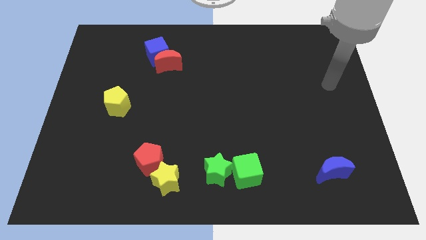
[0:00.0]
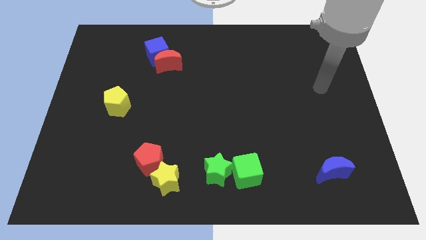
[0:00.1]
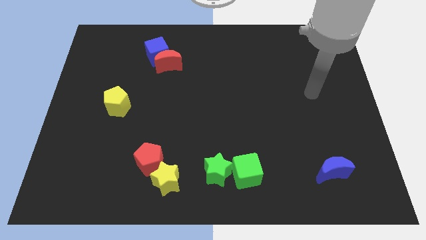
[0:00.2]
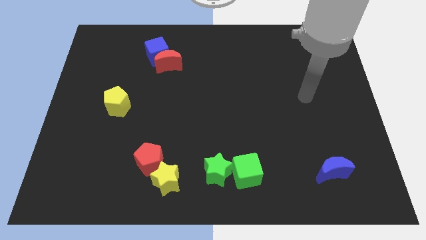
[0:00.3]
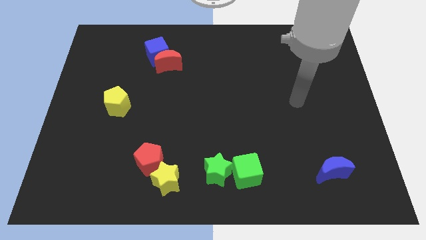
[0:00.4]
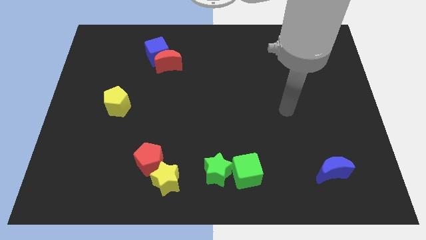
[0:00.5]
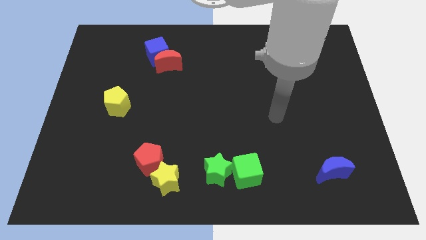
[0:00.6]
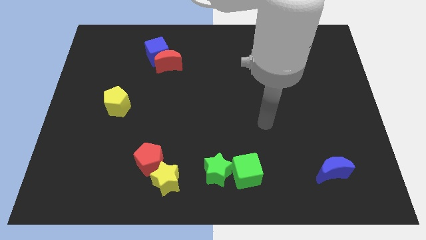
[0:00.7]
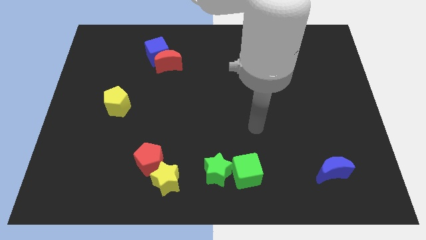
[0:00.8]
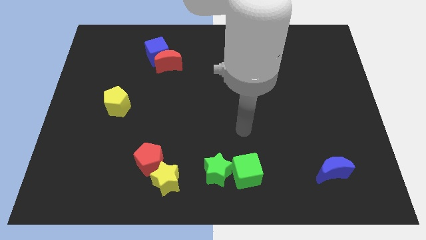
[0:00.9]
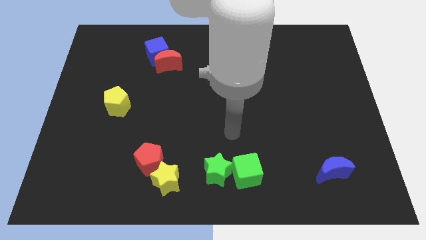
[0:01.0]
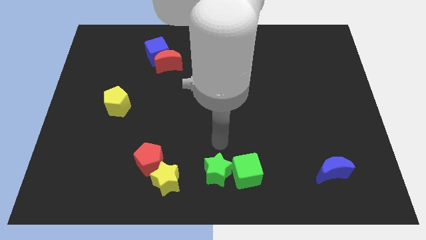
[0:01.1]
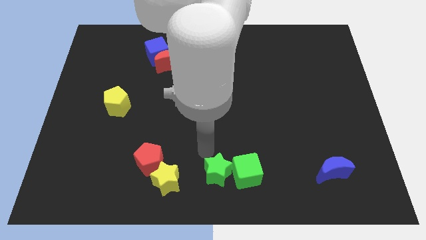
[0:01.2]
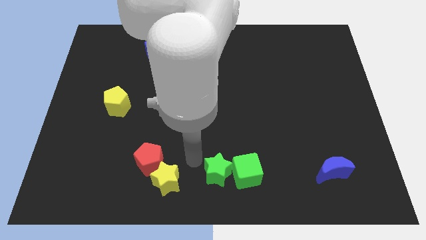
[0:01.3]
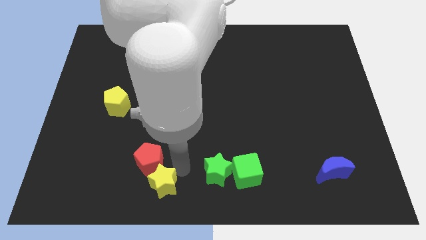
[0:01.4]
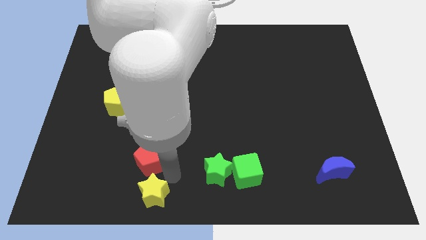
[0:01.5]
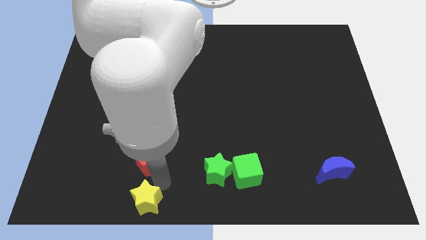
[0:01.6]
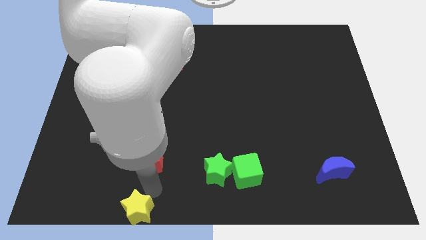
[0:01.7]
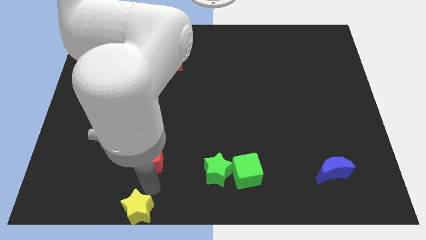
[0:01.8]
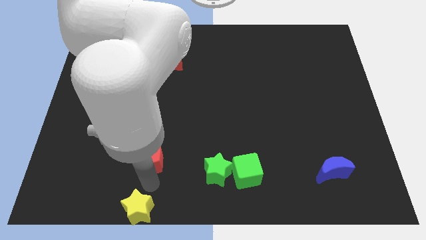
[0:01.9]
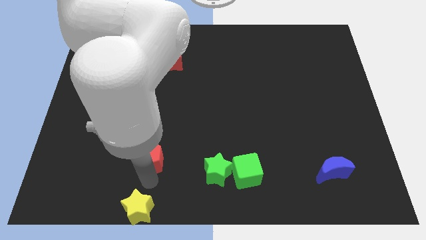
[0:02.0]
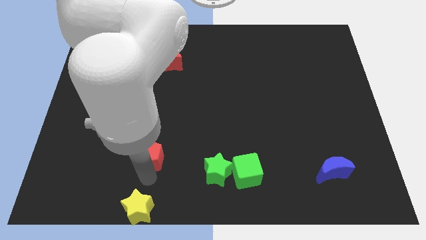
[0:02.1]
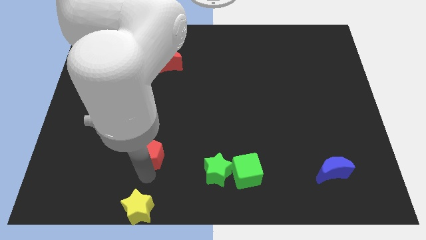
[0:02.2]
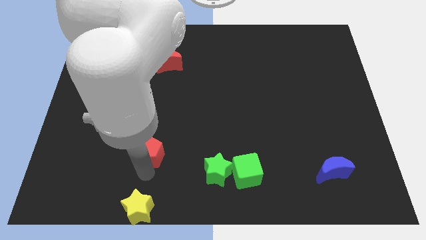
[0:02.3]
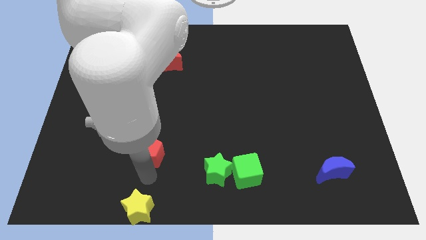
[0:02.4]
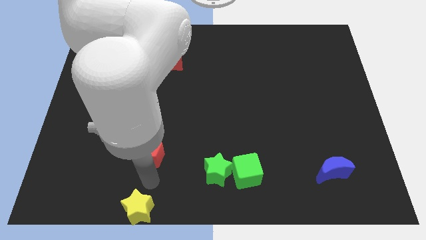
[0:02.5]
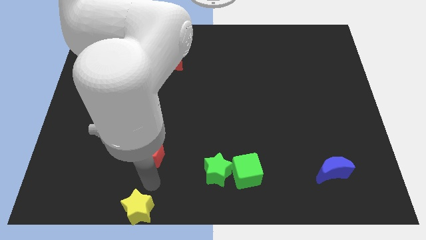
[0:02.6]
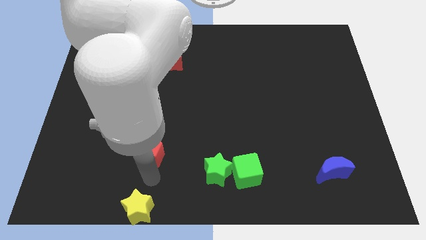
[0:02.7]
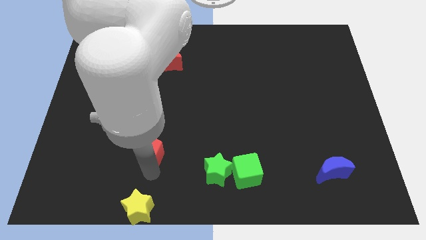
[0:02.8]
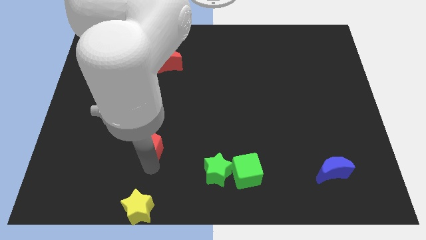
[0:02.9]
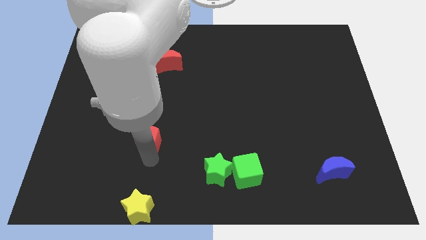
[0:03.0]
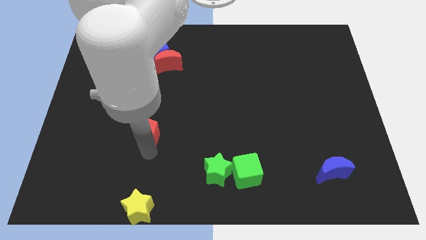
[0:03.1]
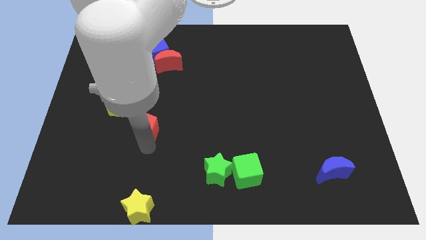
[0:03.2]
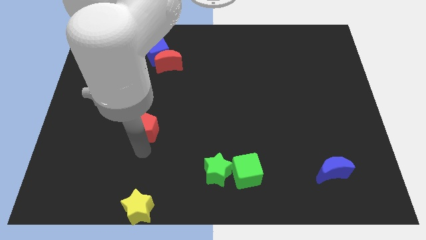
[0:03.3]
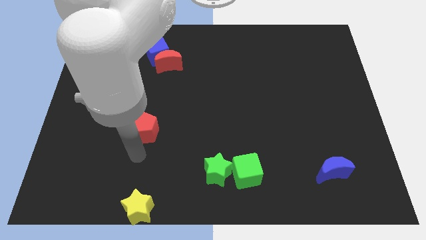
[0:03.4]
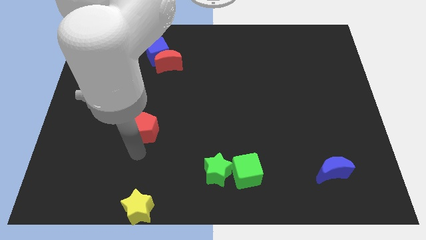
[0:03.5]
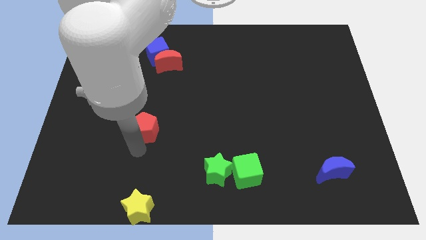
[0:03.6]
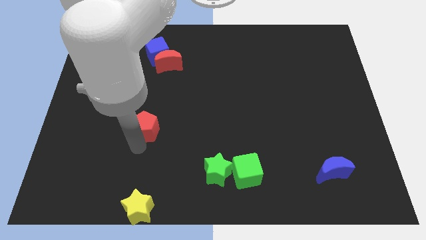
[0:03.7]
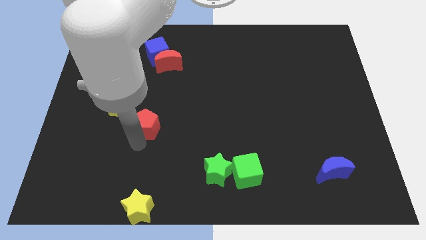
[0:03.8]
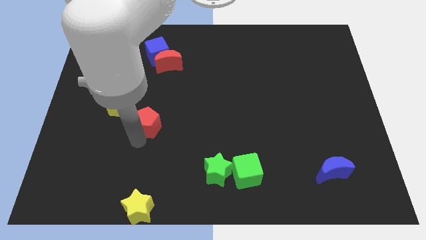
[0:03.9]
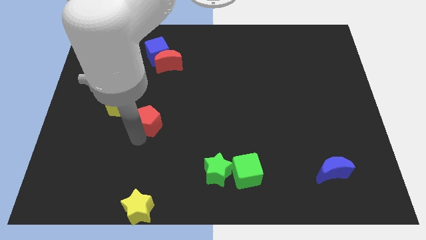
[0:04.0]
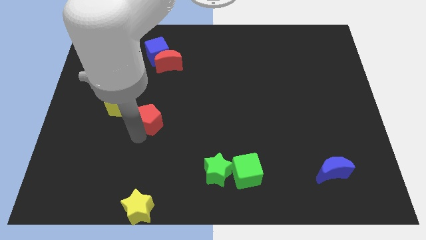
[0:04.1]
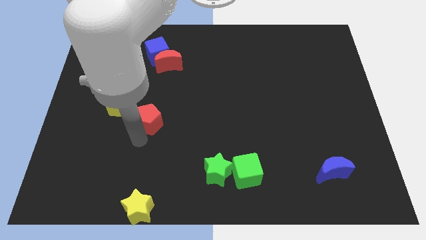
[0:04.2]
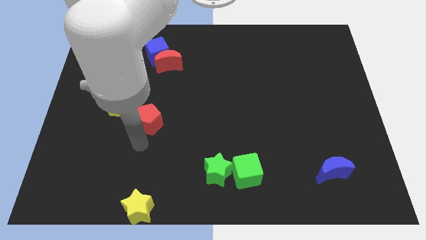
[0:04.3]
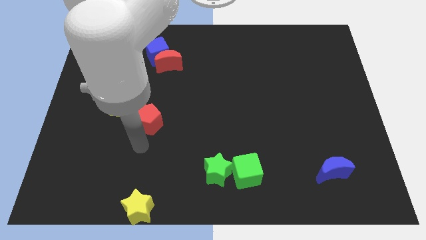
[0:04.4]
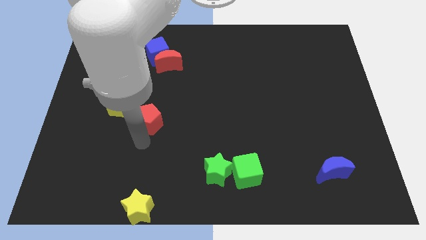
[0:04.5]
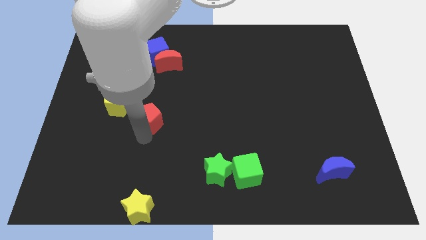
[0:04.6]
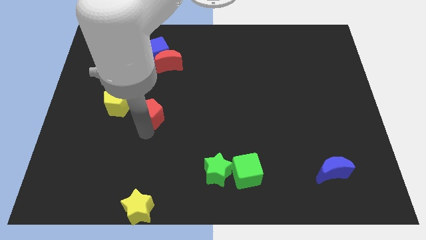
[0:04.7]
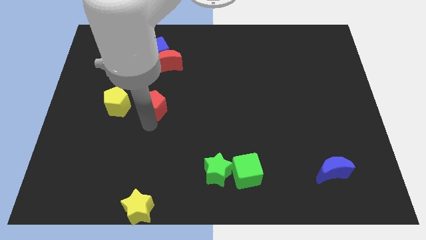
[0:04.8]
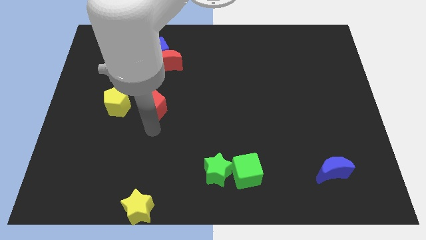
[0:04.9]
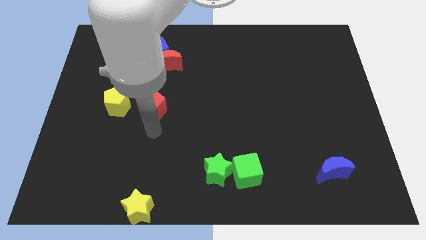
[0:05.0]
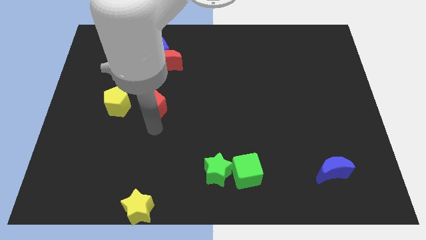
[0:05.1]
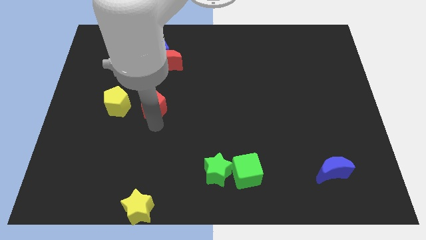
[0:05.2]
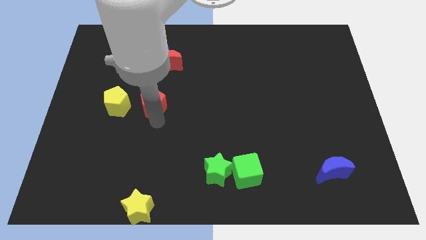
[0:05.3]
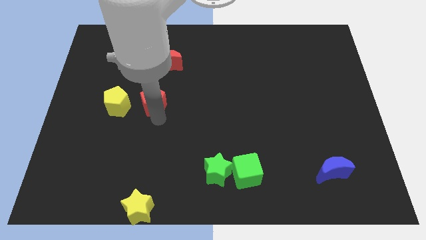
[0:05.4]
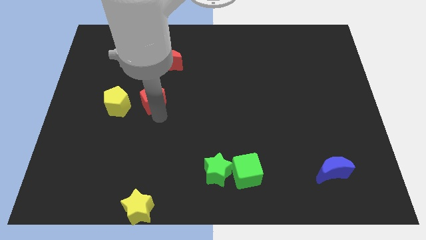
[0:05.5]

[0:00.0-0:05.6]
push the red pentagon to the bottom side of the blue cube

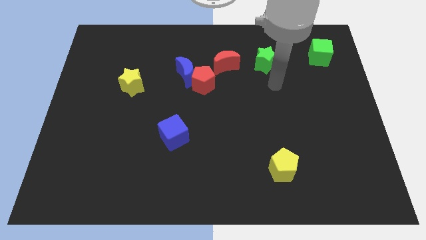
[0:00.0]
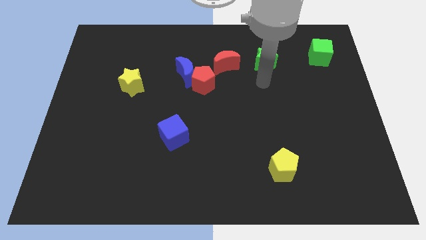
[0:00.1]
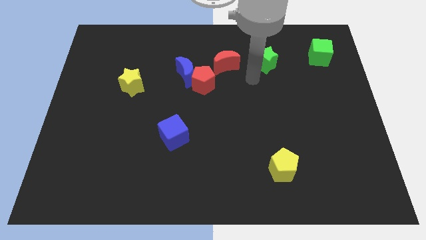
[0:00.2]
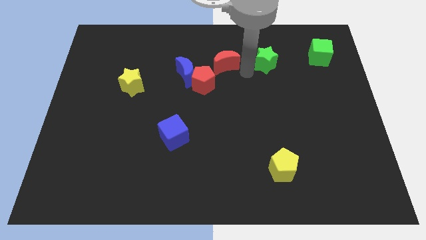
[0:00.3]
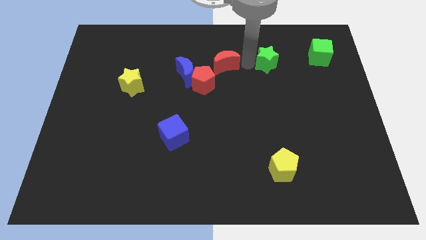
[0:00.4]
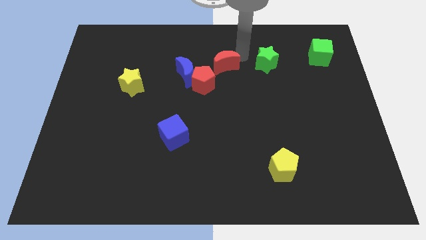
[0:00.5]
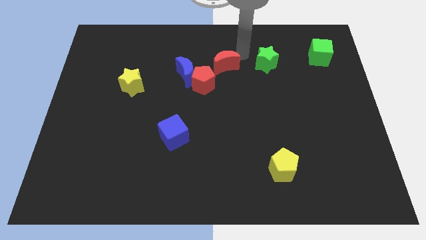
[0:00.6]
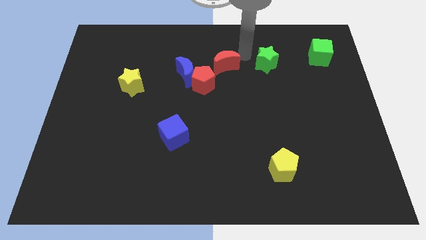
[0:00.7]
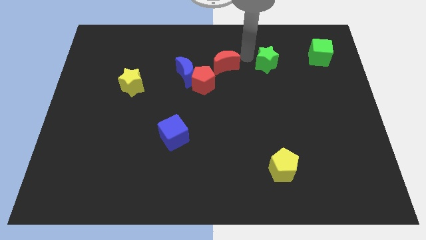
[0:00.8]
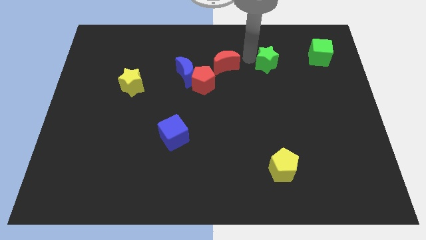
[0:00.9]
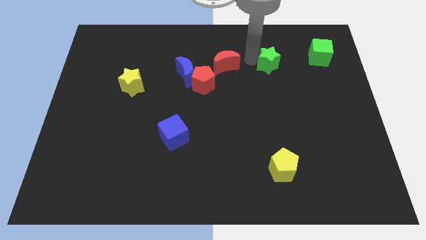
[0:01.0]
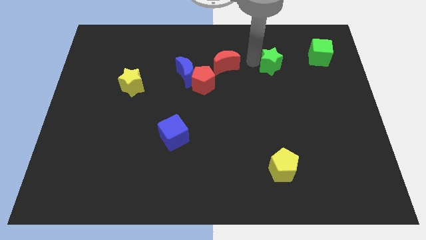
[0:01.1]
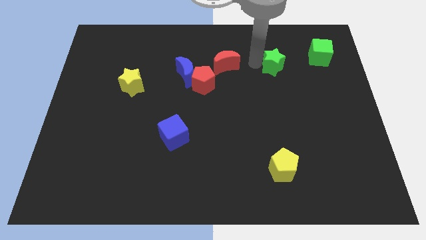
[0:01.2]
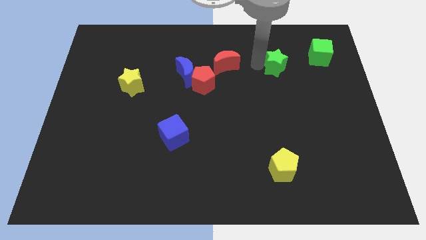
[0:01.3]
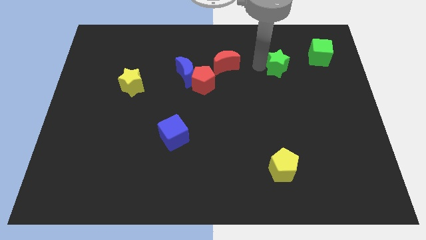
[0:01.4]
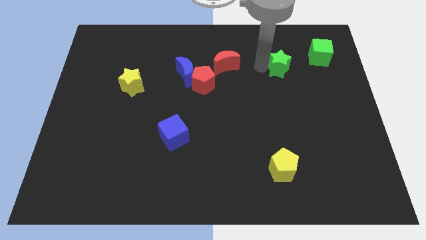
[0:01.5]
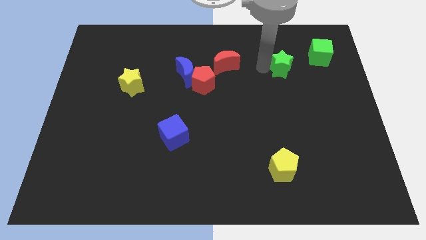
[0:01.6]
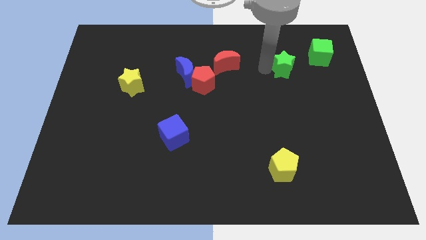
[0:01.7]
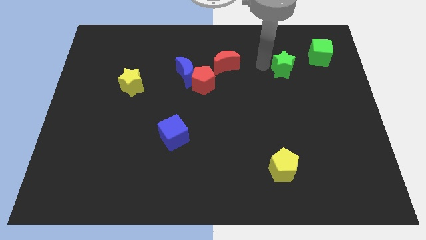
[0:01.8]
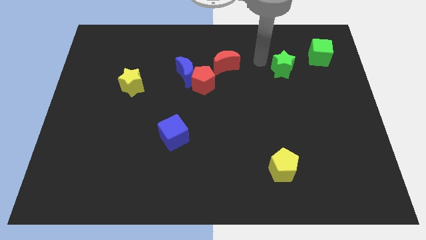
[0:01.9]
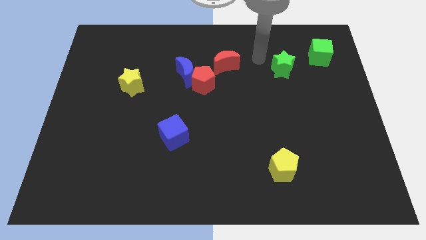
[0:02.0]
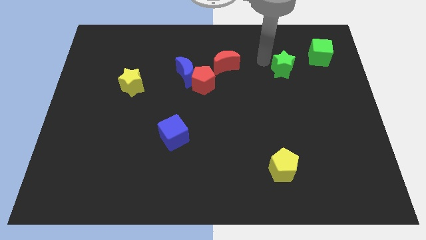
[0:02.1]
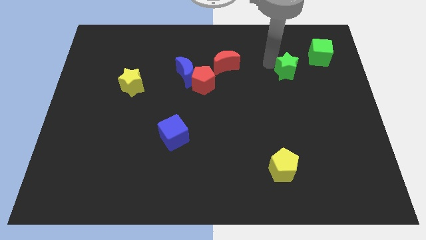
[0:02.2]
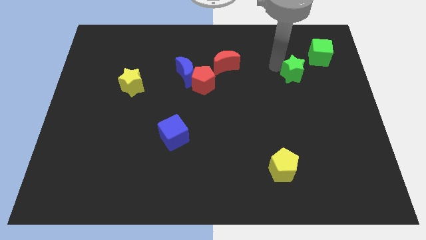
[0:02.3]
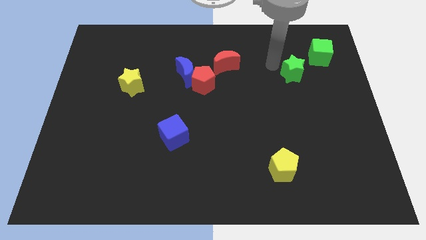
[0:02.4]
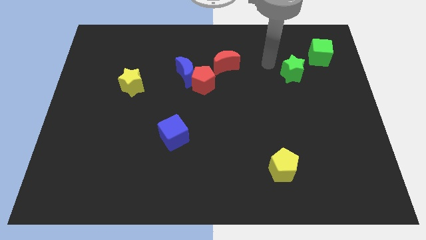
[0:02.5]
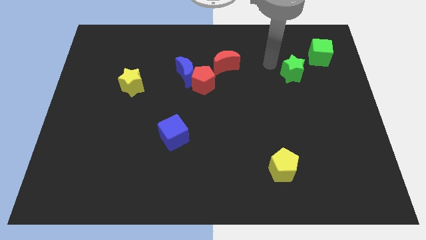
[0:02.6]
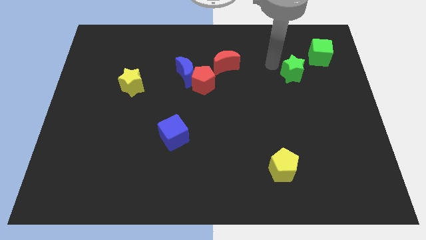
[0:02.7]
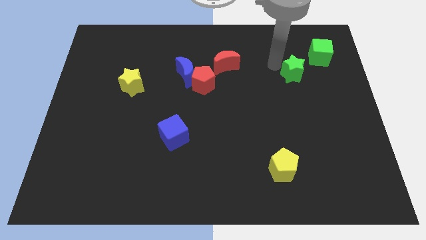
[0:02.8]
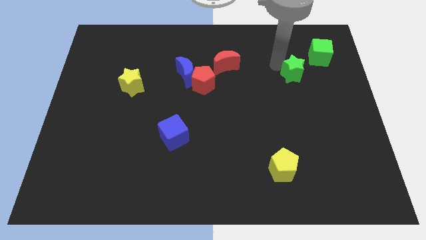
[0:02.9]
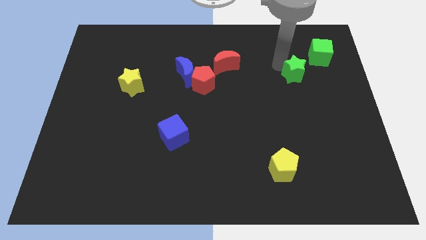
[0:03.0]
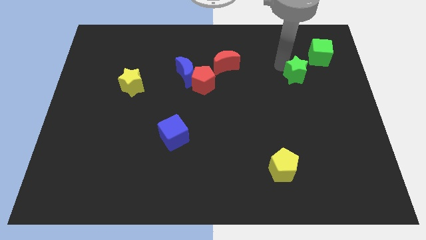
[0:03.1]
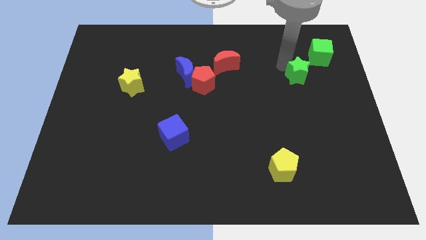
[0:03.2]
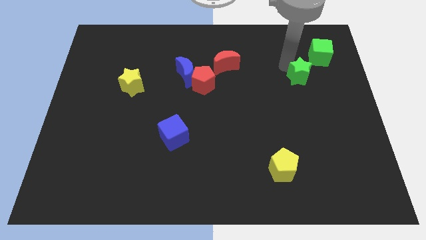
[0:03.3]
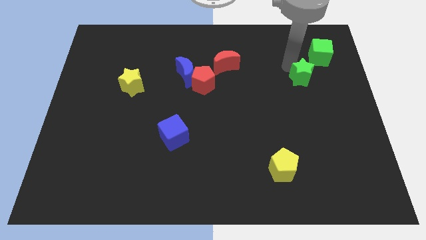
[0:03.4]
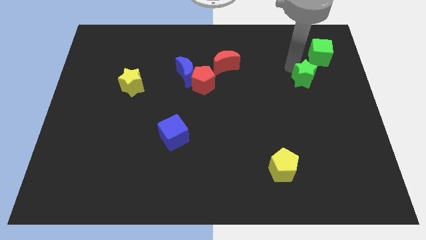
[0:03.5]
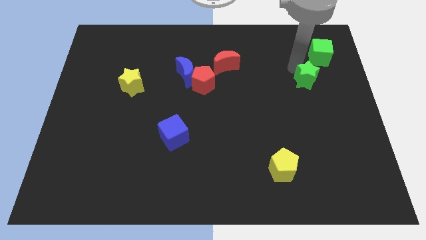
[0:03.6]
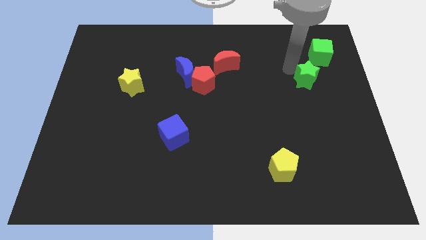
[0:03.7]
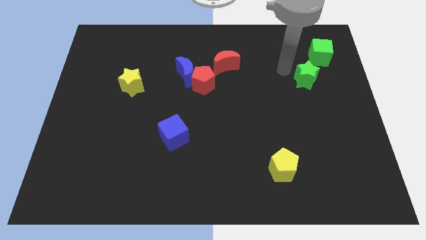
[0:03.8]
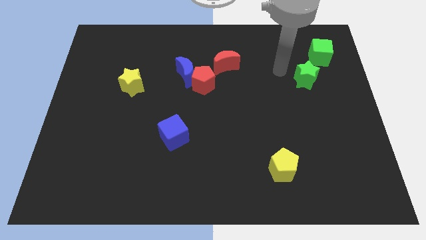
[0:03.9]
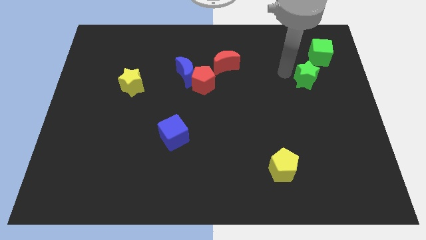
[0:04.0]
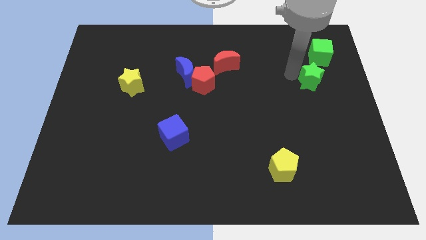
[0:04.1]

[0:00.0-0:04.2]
put the green star to the bottom of the green cube
